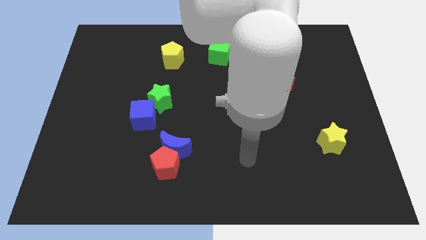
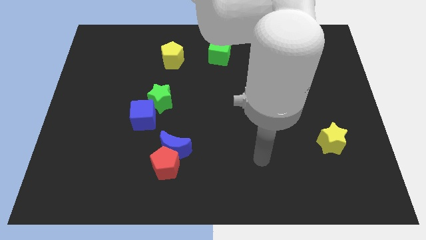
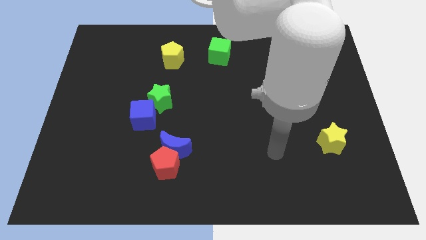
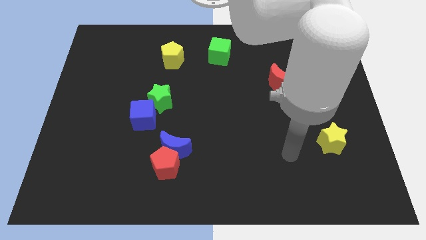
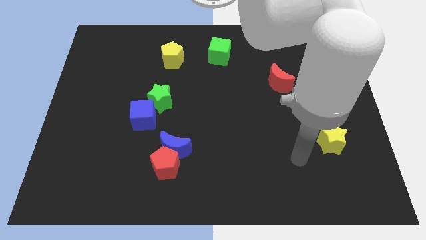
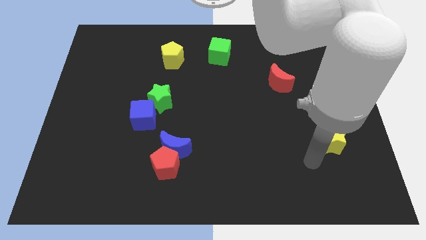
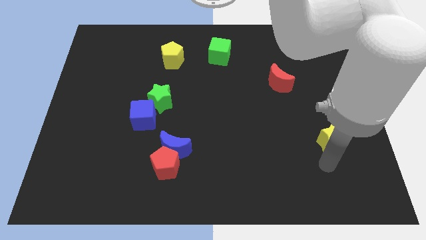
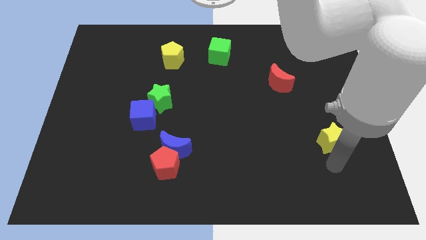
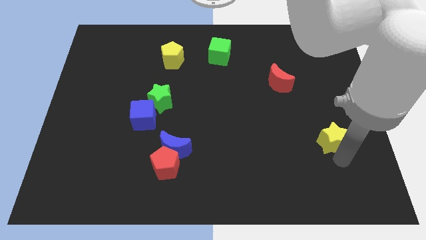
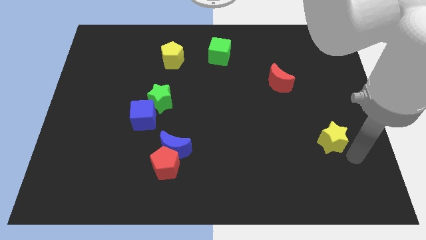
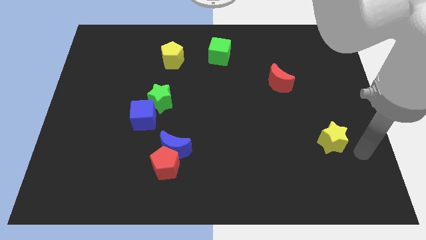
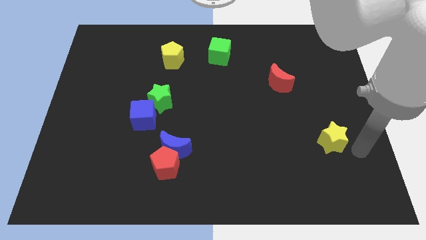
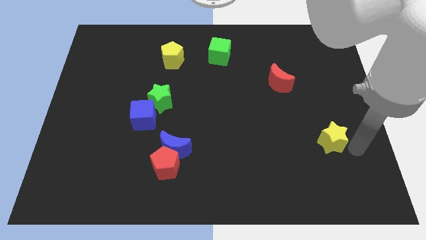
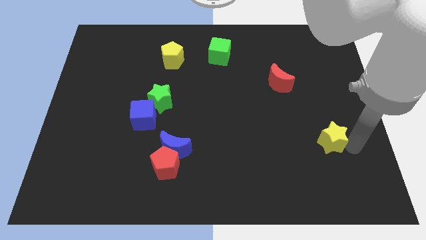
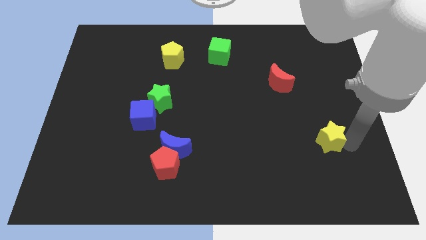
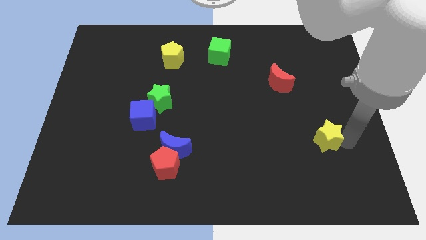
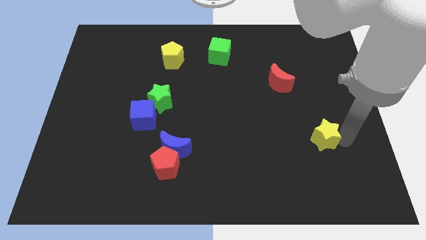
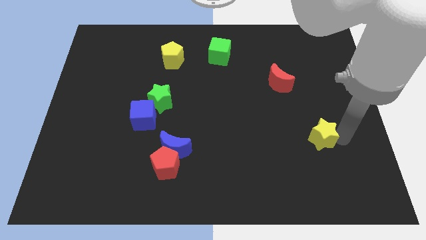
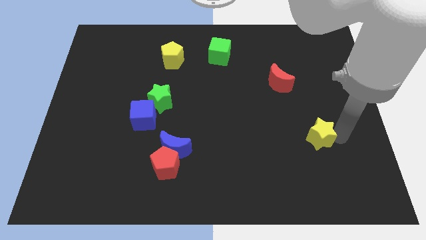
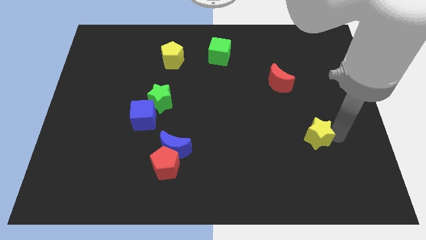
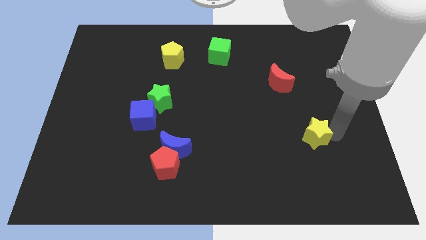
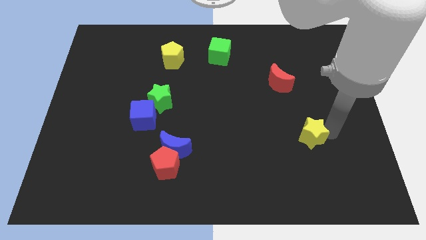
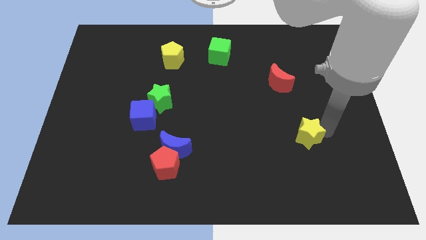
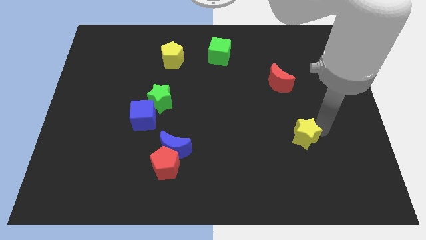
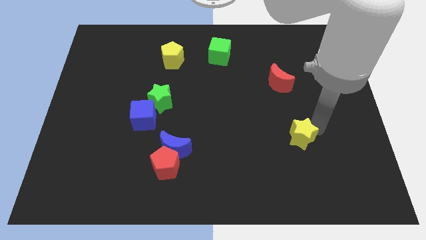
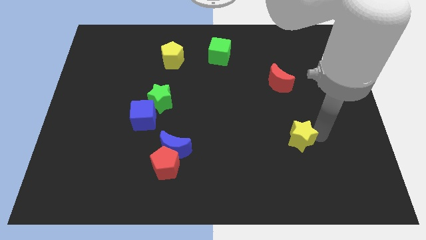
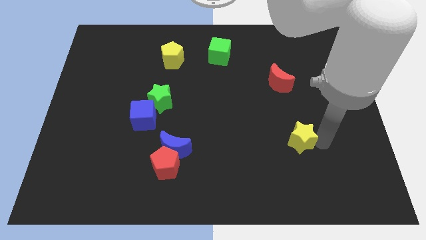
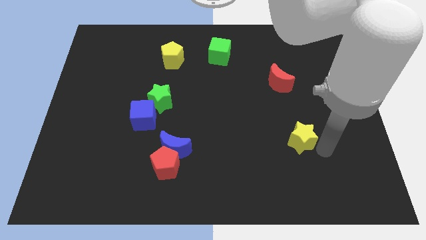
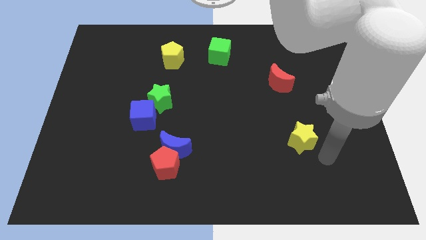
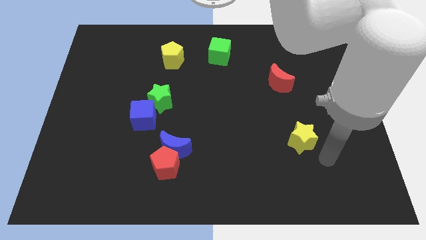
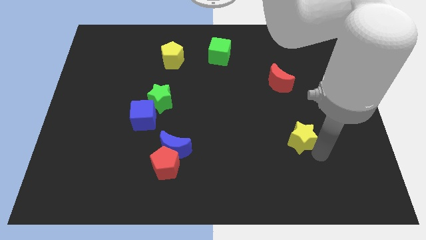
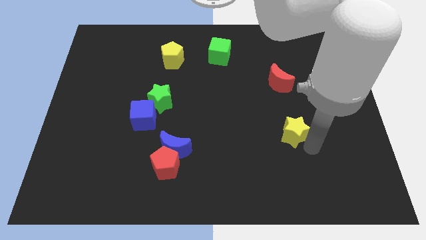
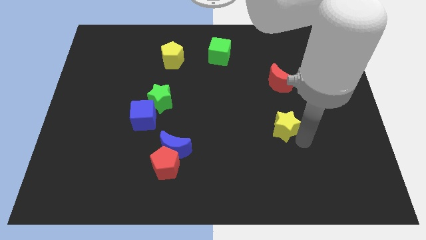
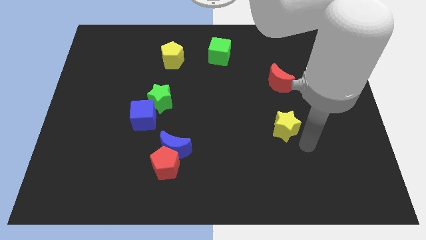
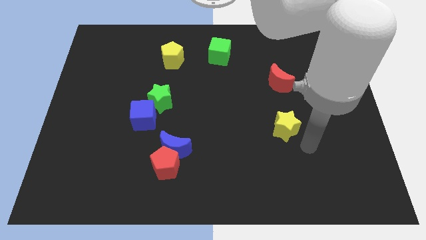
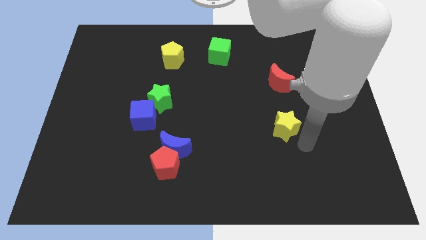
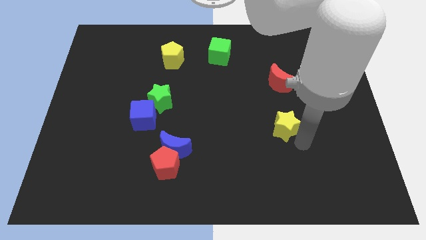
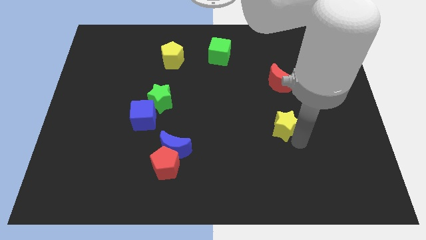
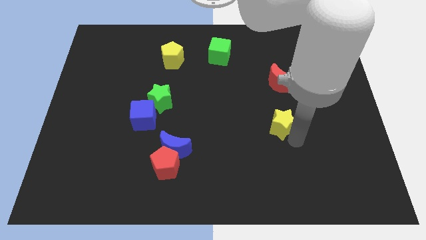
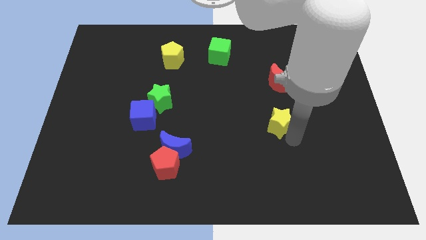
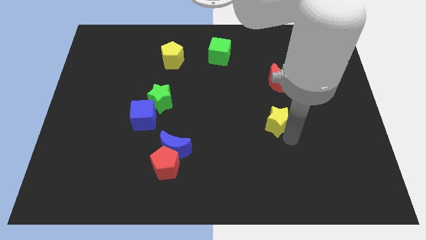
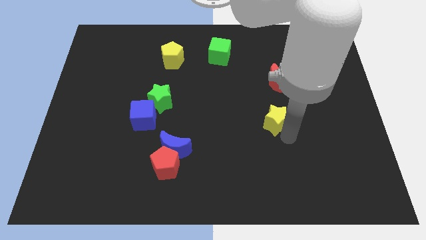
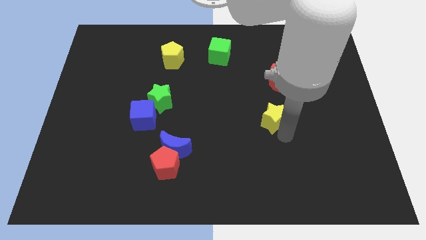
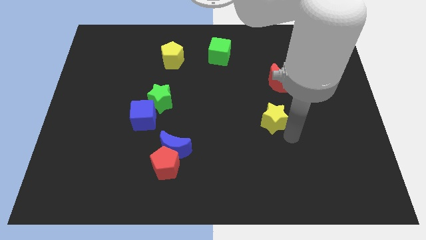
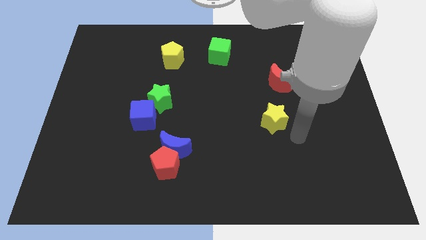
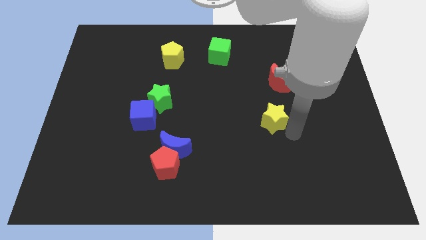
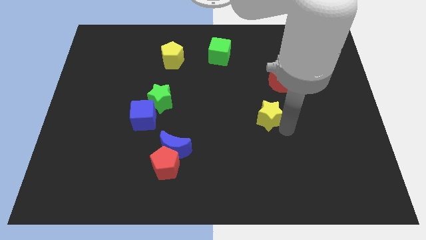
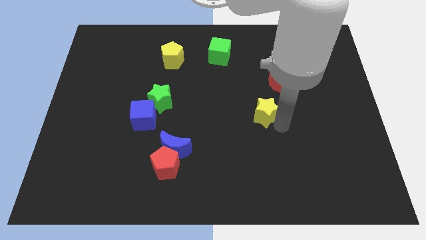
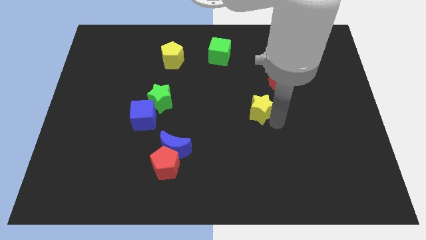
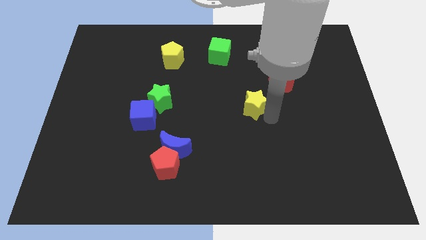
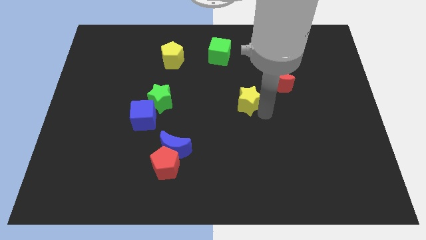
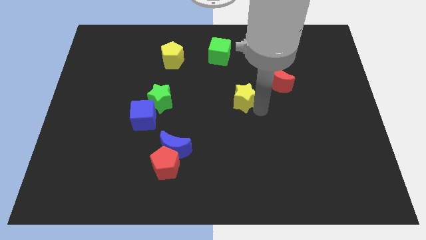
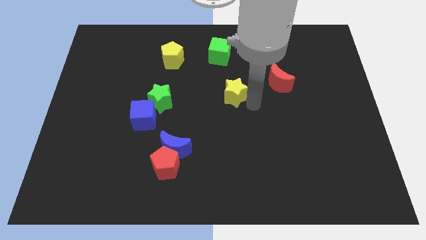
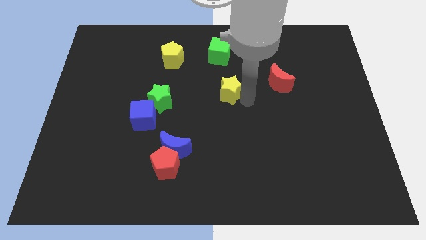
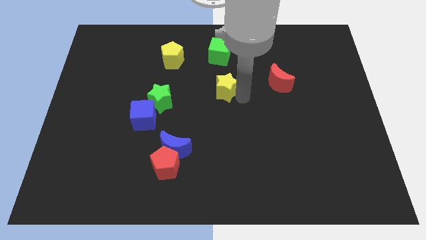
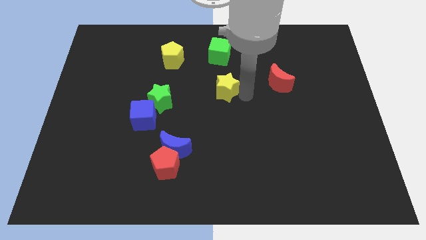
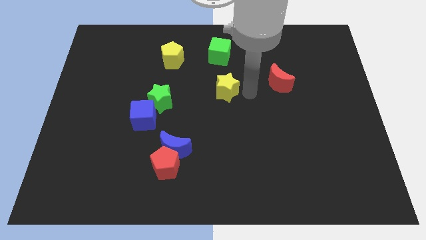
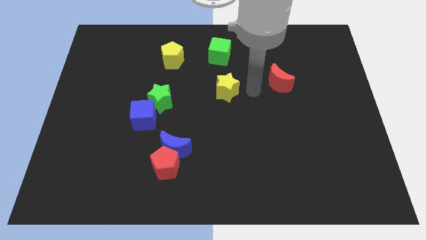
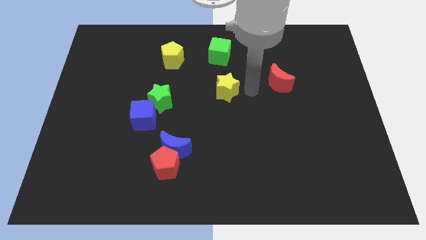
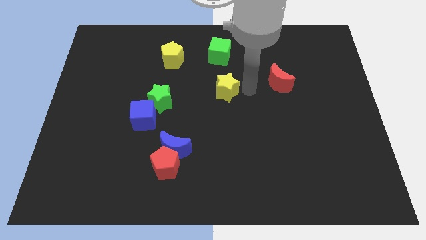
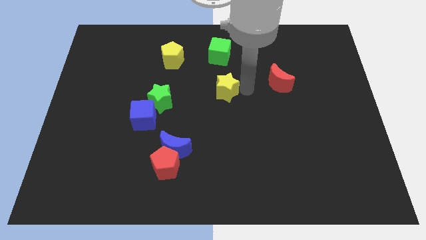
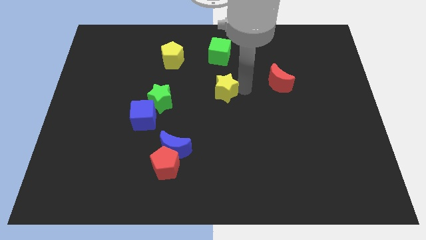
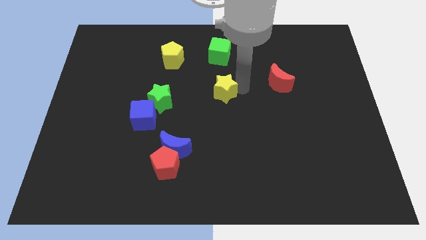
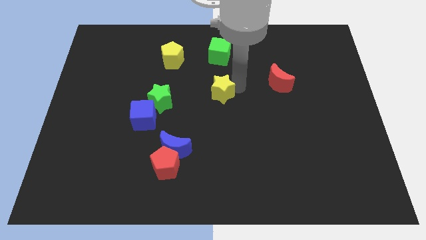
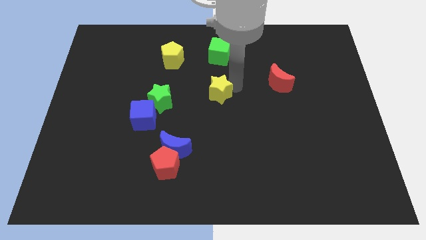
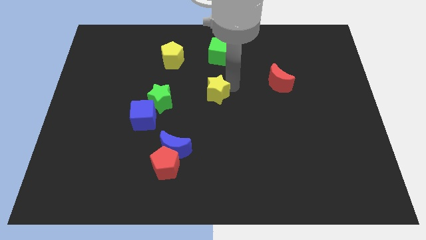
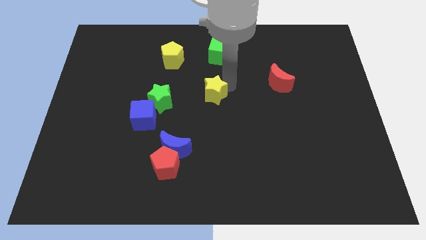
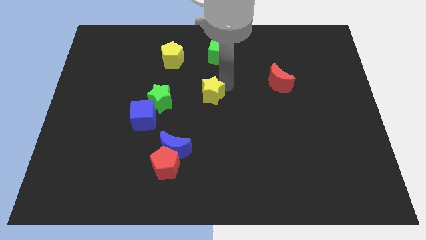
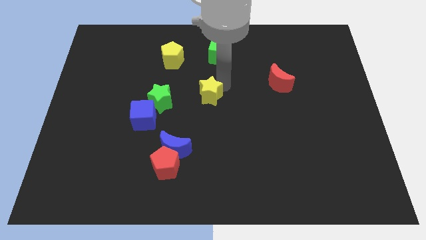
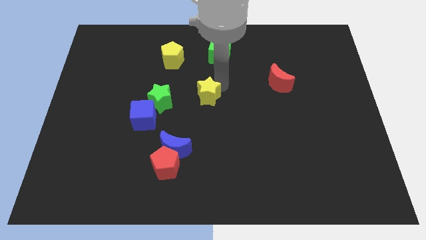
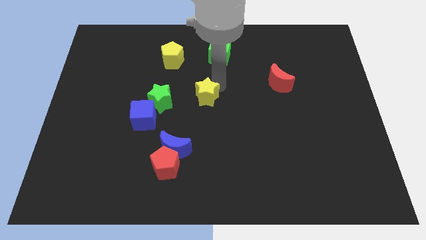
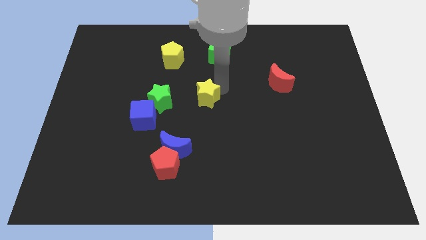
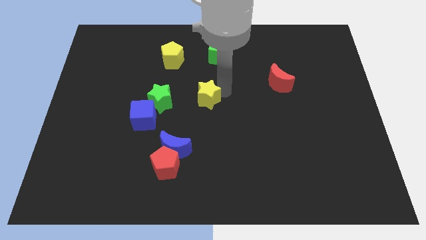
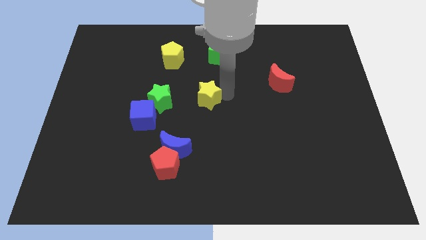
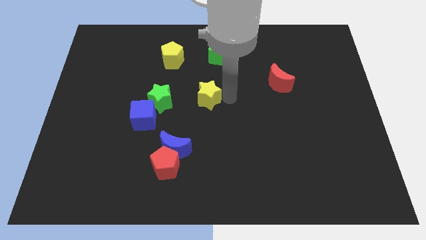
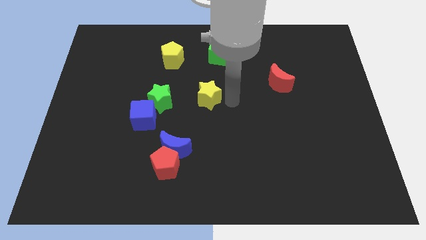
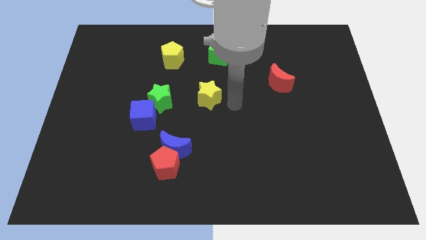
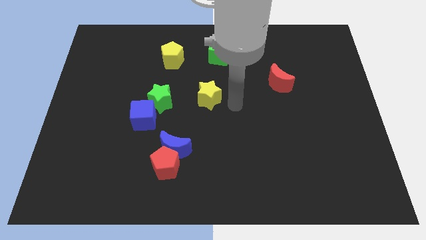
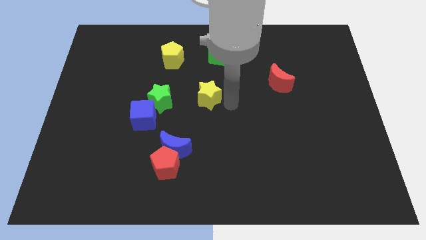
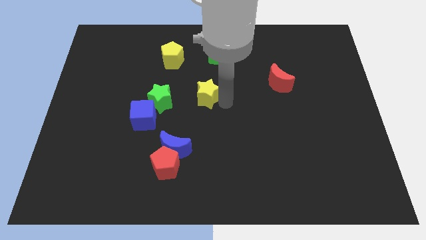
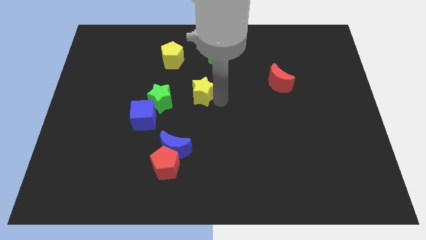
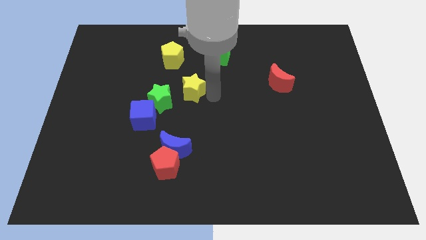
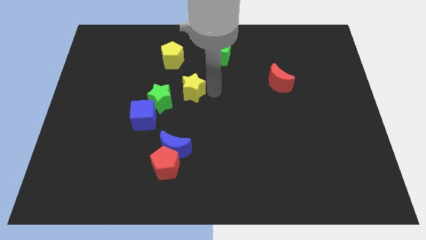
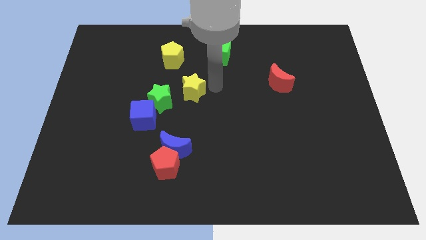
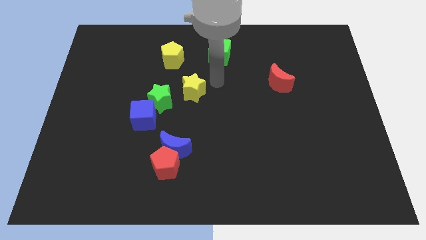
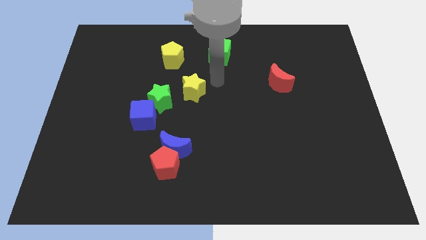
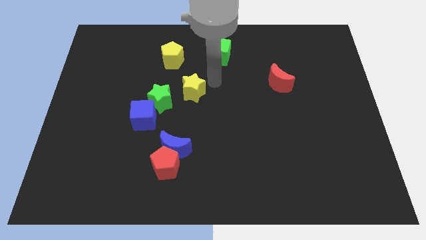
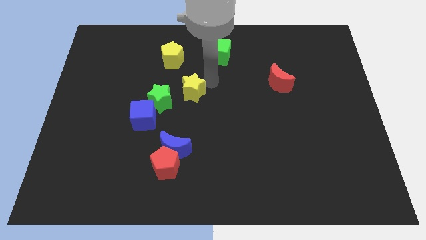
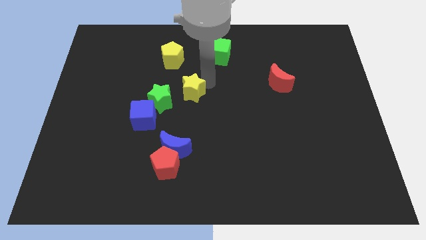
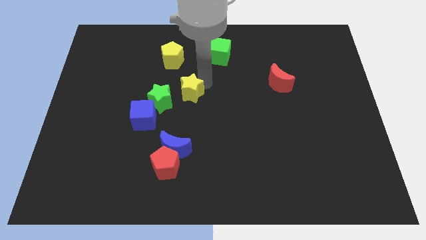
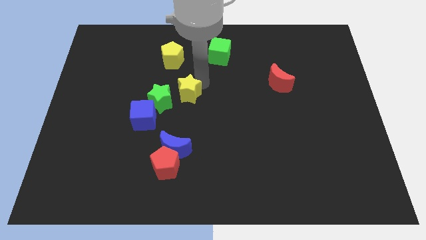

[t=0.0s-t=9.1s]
put the yellow star diagonally up and to the right of the blue cube
